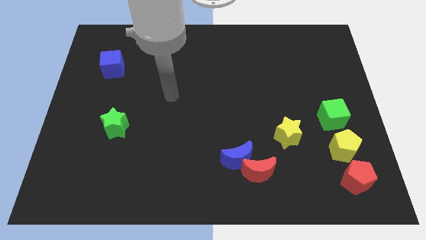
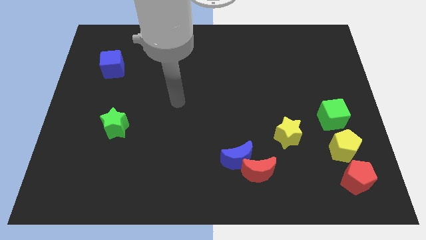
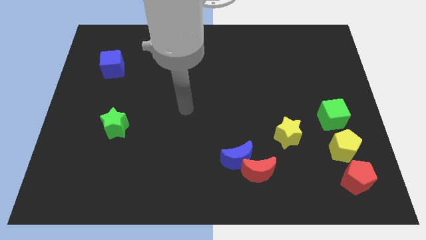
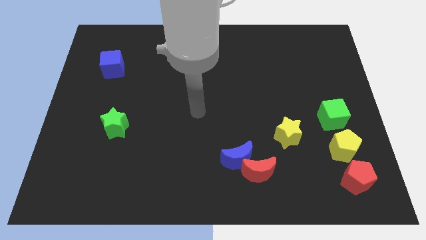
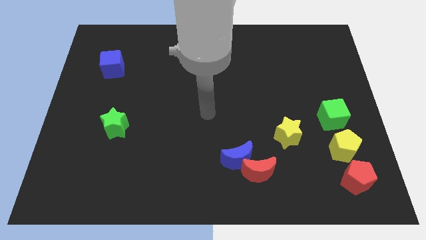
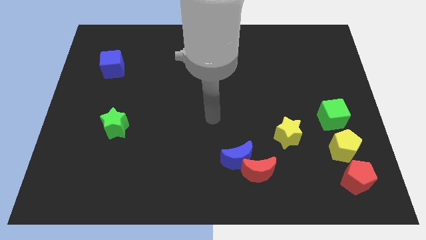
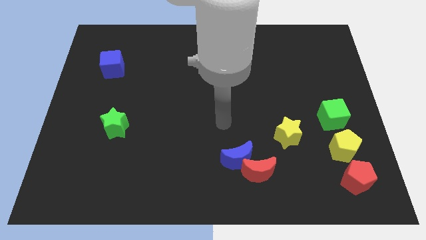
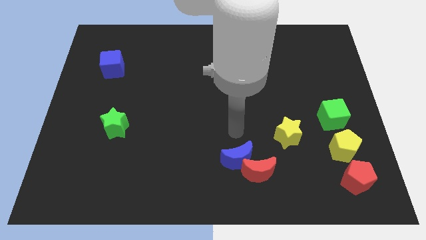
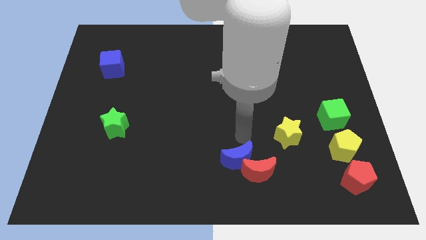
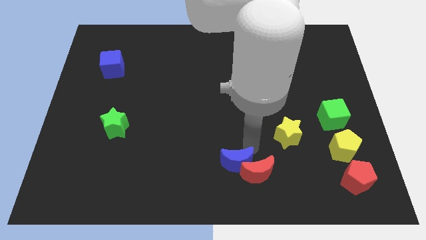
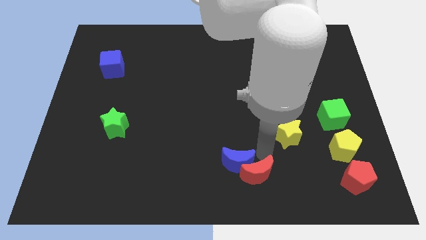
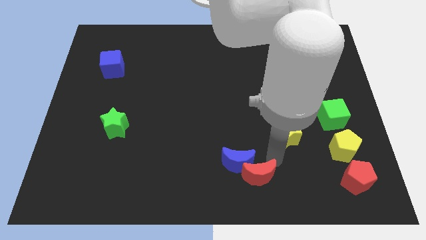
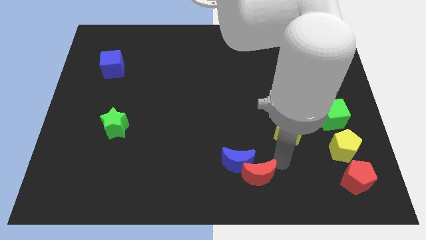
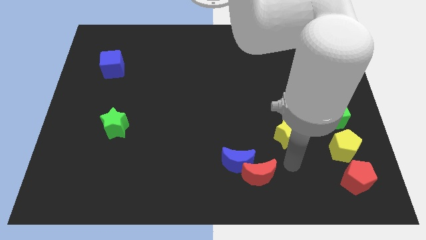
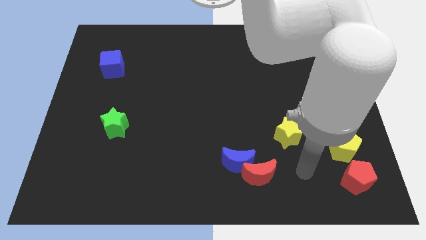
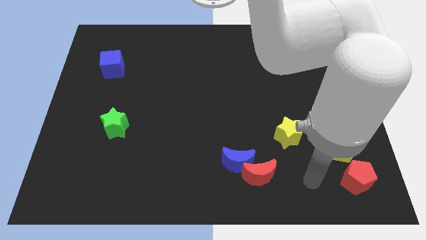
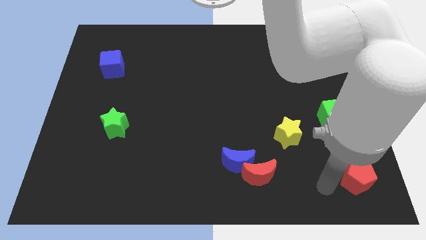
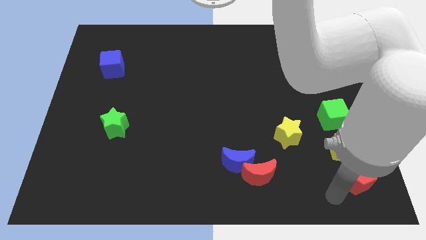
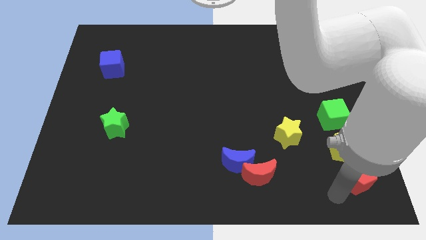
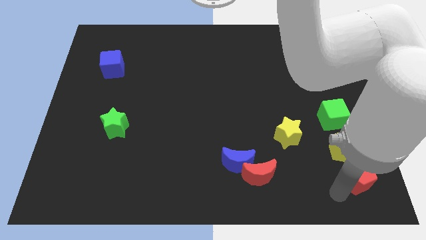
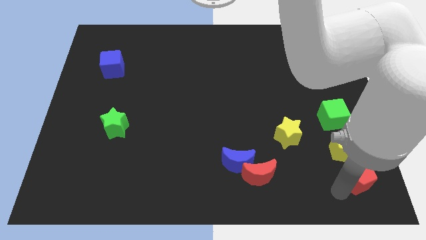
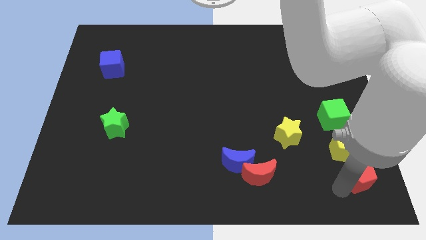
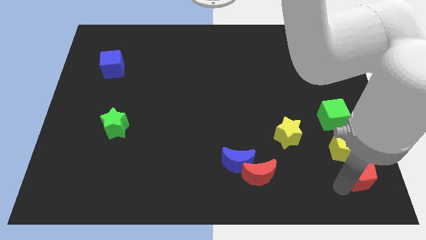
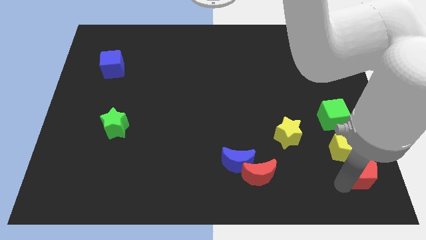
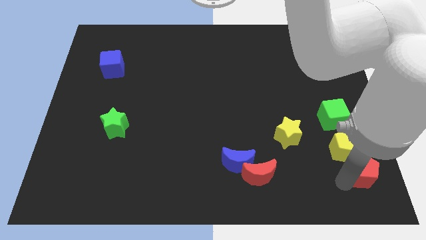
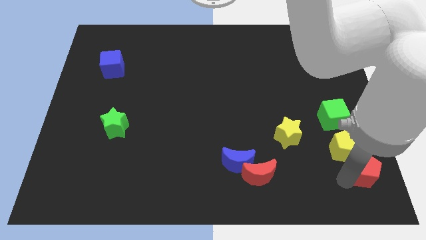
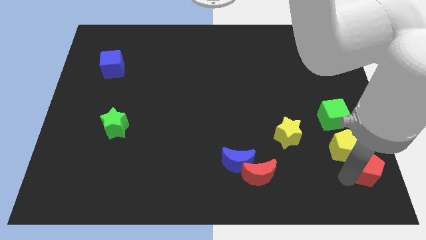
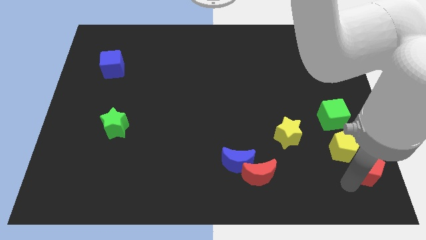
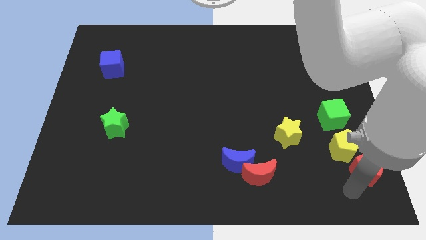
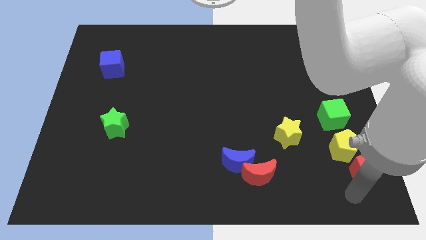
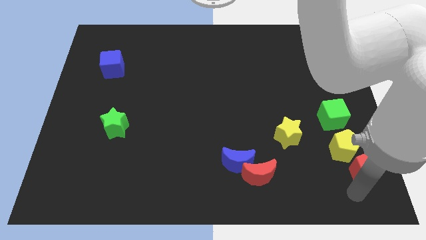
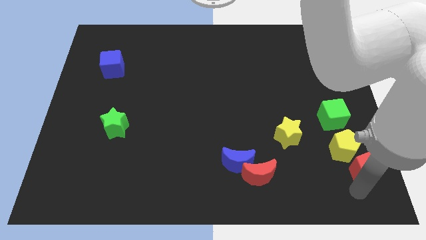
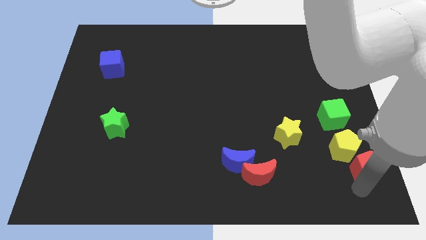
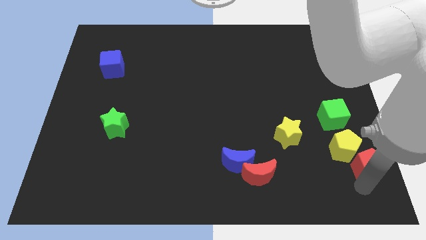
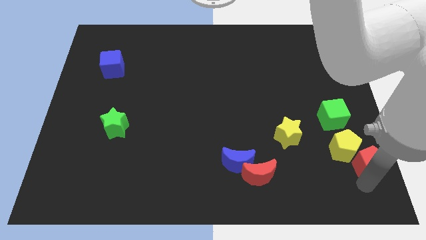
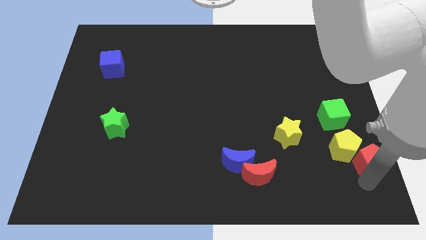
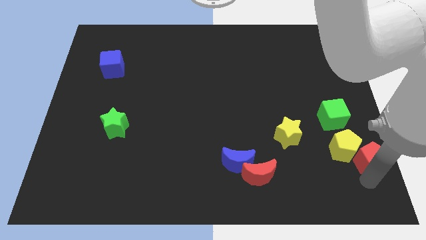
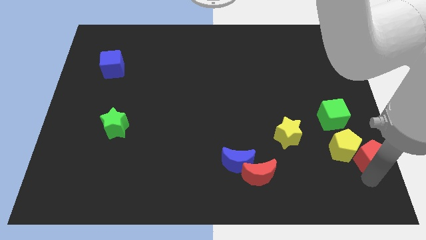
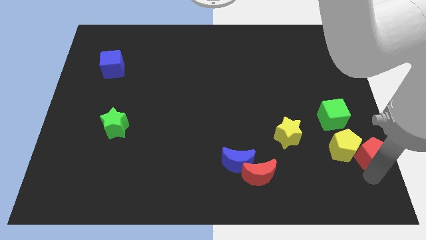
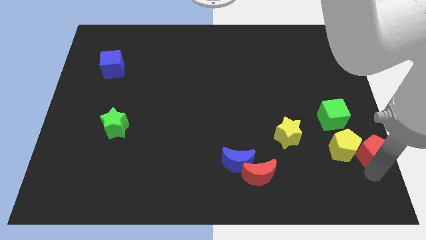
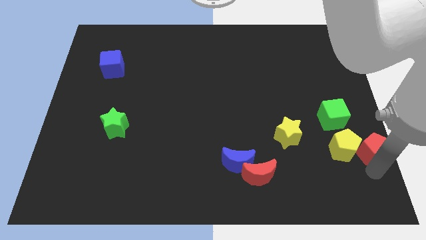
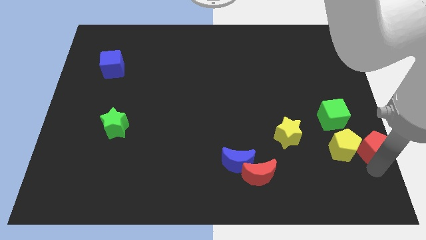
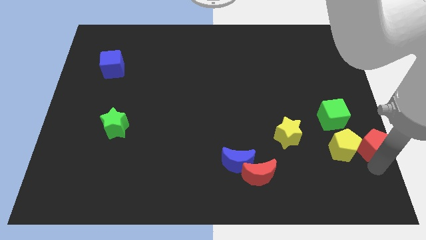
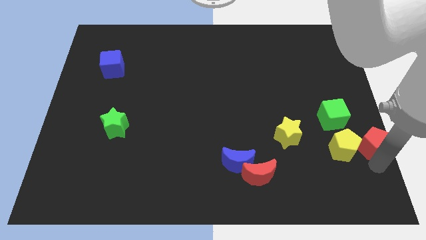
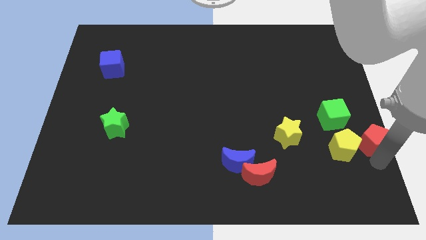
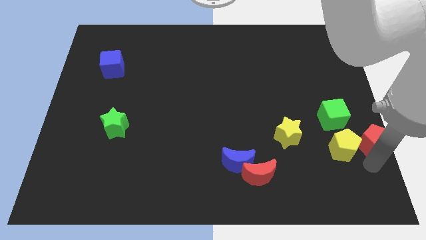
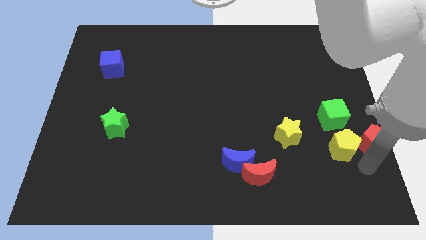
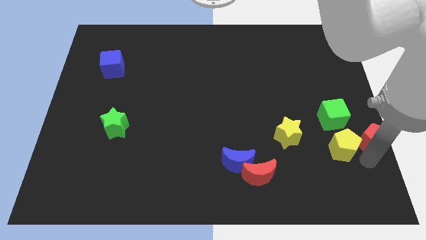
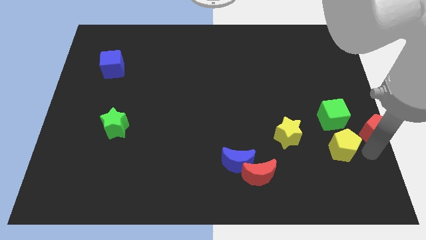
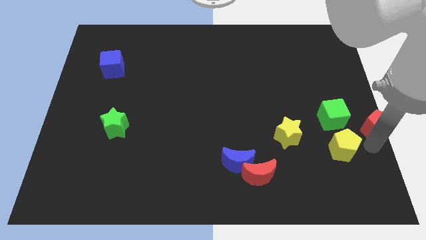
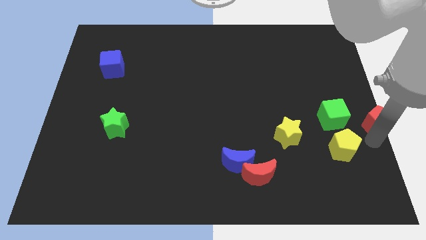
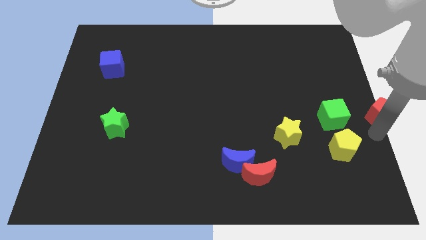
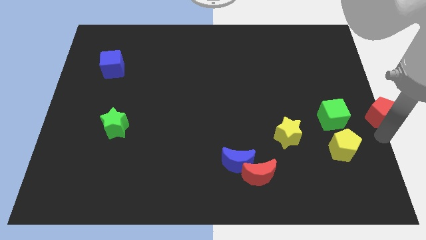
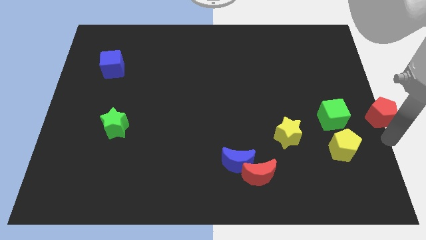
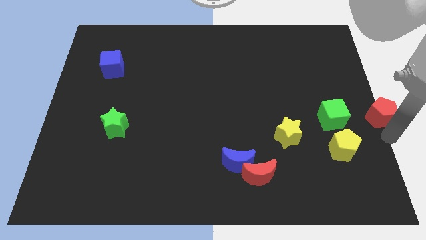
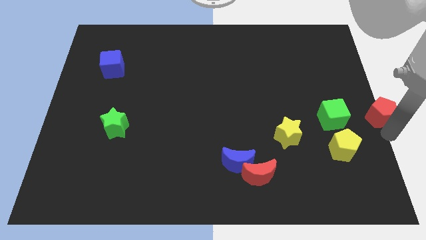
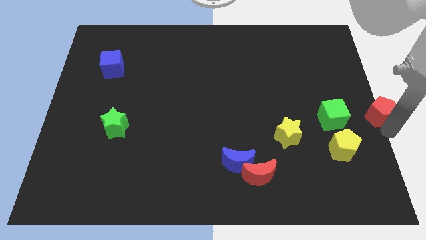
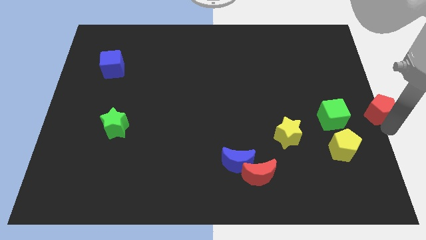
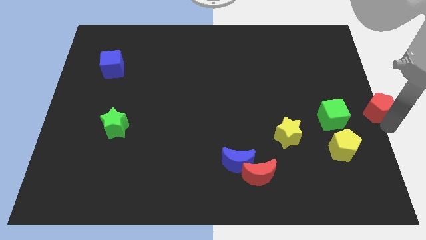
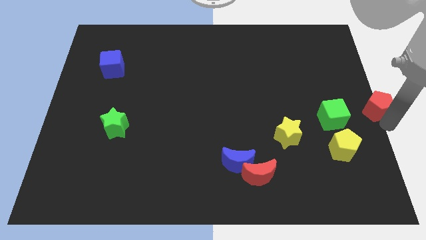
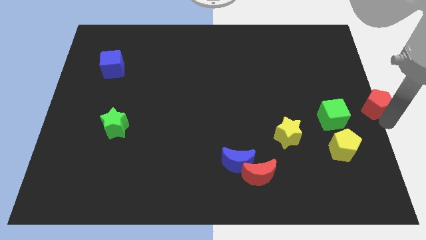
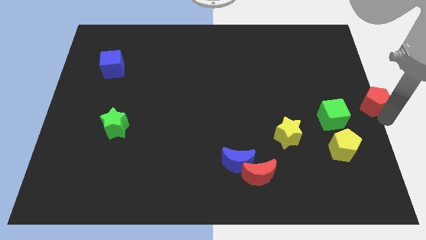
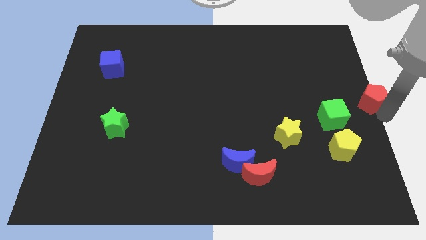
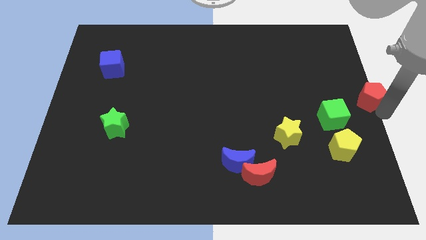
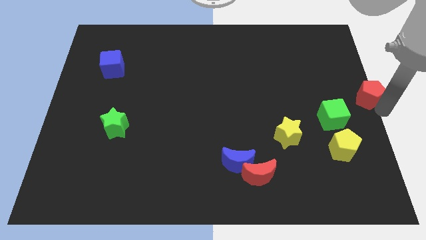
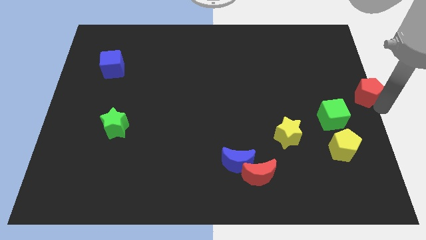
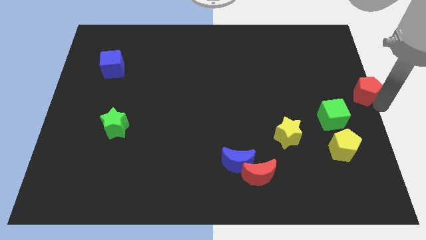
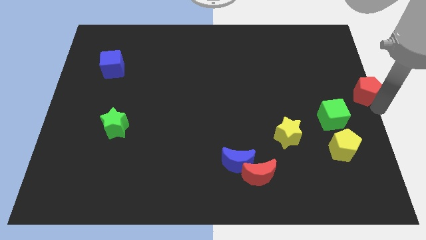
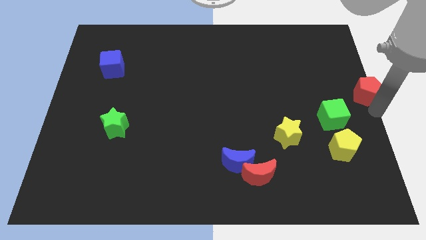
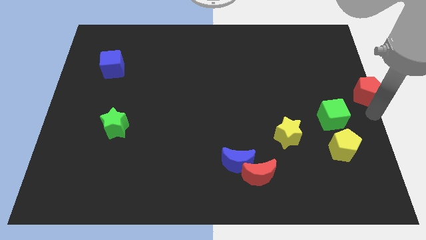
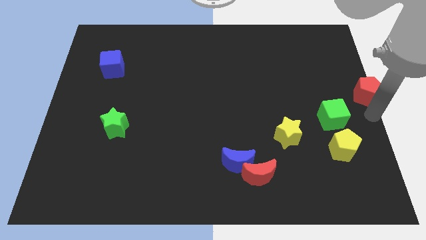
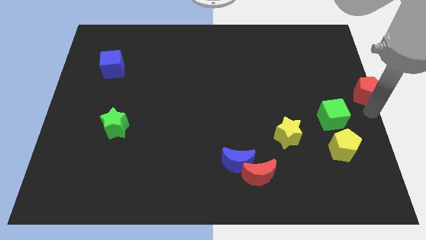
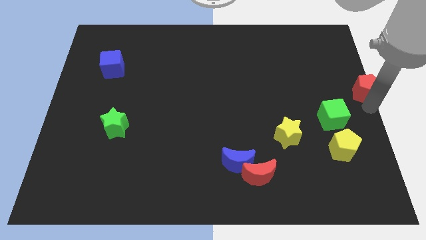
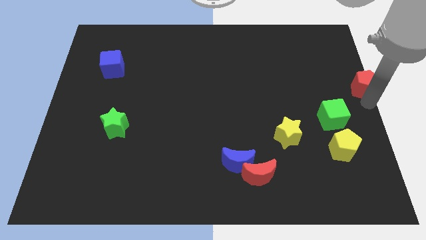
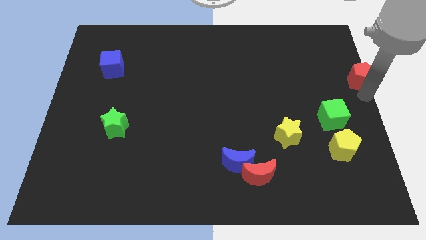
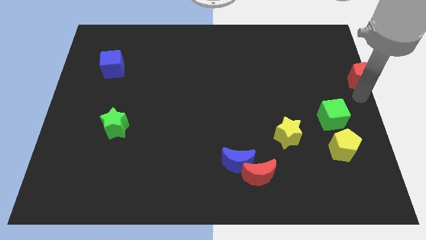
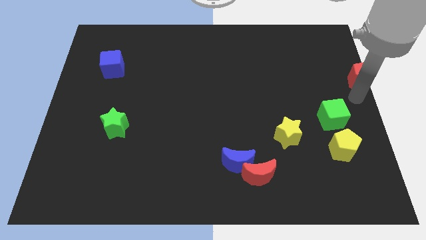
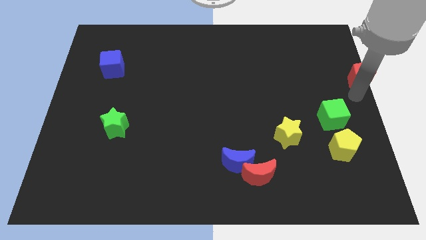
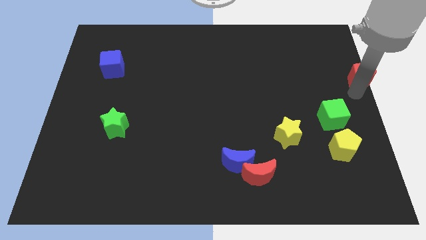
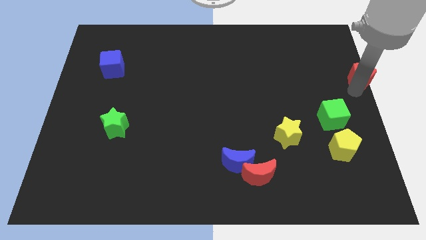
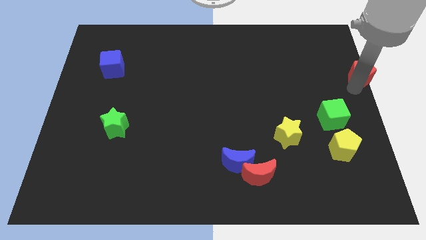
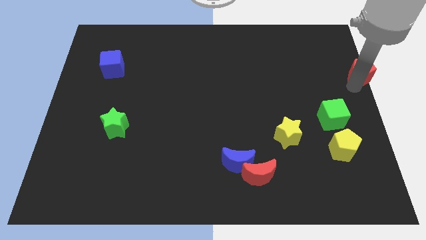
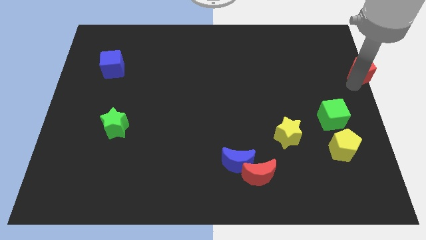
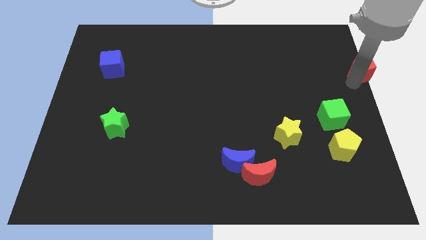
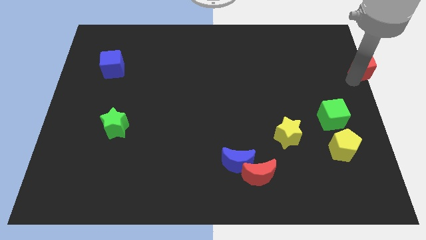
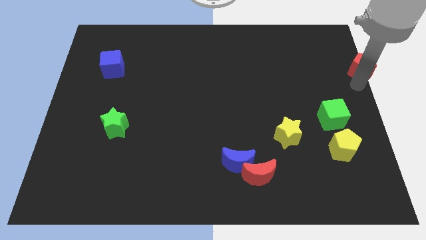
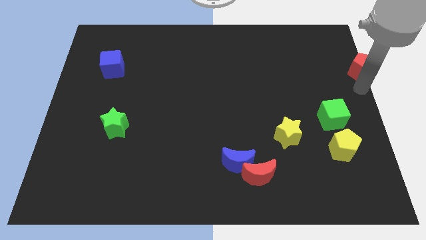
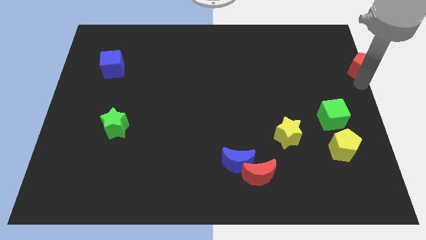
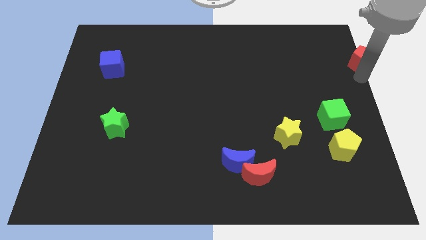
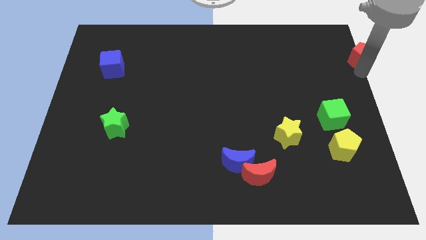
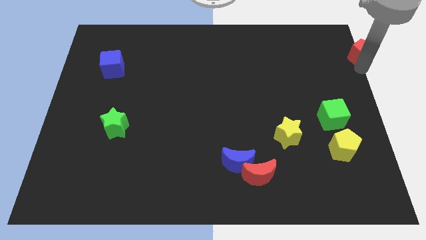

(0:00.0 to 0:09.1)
put the red pentagon to the top right of the board
